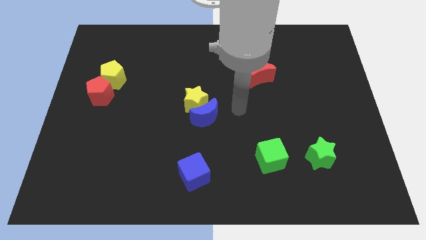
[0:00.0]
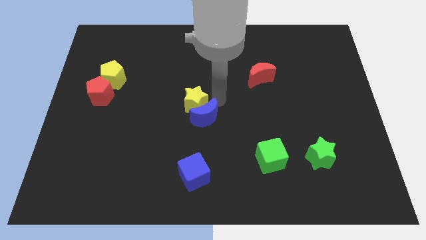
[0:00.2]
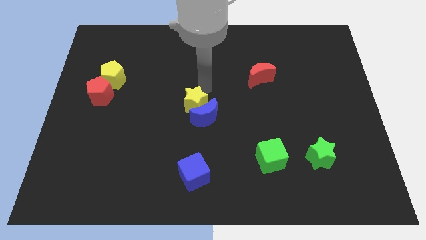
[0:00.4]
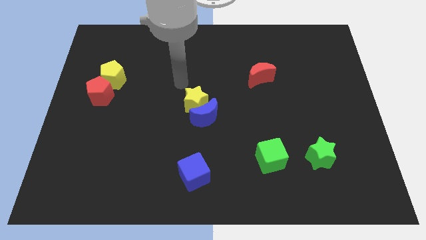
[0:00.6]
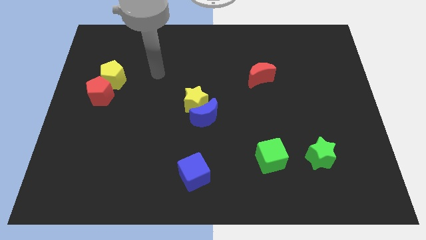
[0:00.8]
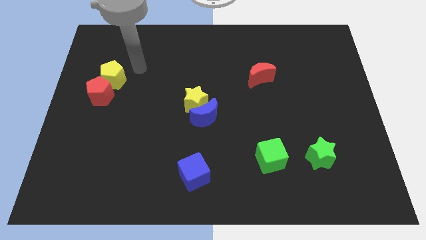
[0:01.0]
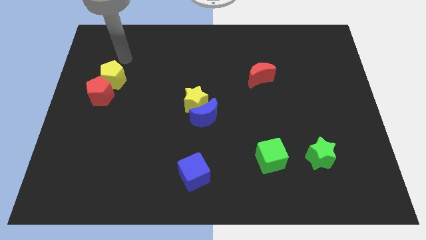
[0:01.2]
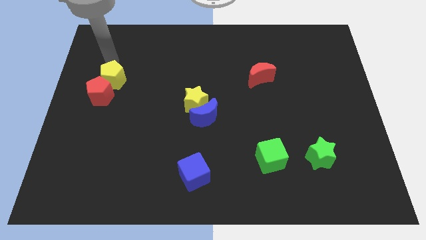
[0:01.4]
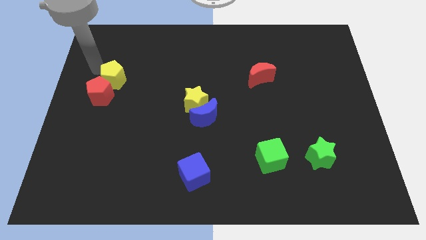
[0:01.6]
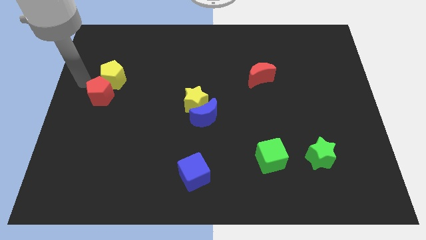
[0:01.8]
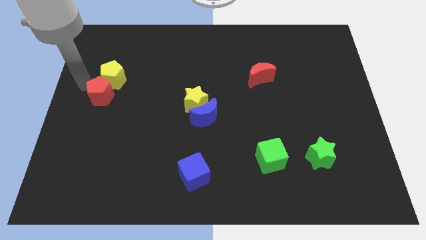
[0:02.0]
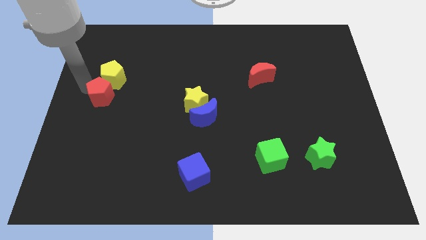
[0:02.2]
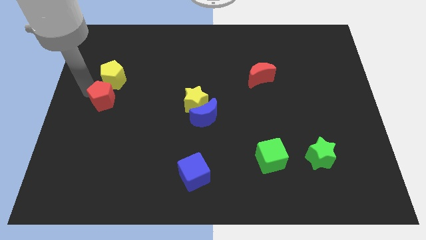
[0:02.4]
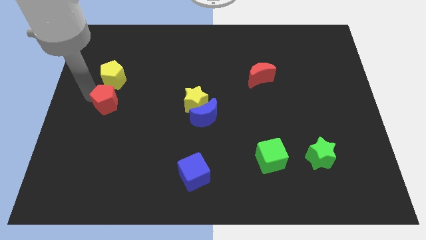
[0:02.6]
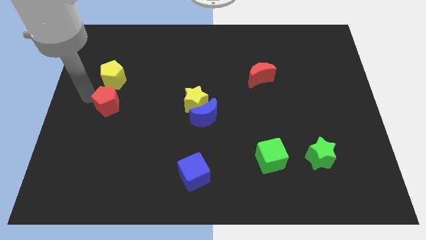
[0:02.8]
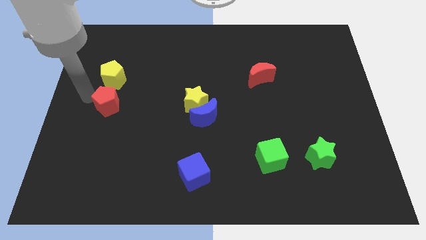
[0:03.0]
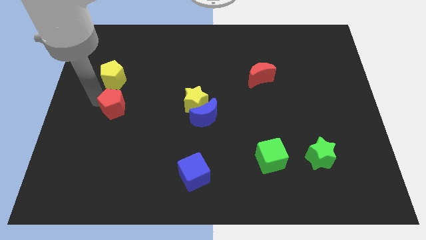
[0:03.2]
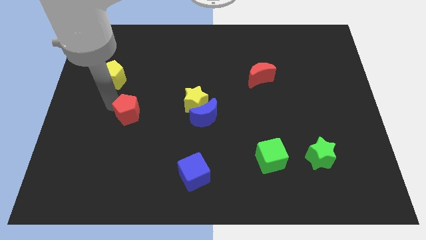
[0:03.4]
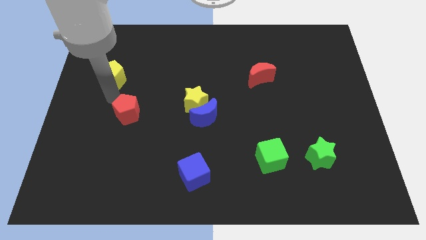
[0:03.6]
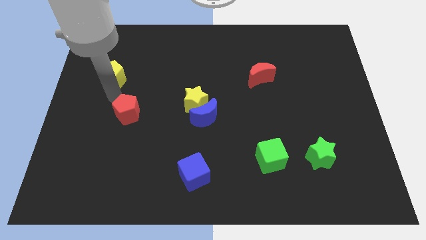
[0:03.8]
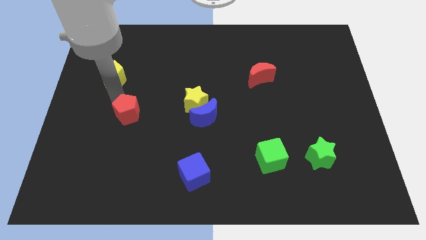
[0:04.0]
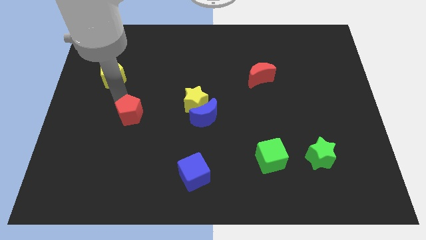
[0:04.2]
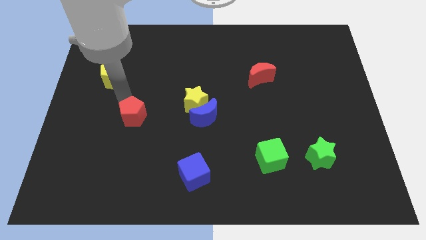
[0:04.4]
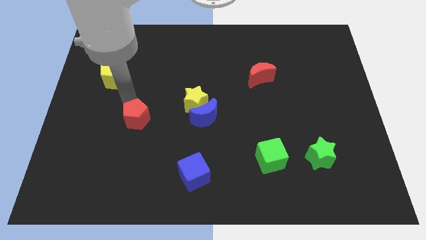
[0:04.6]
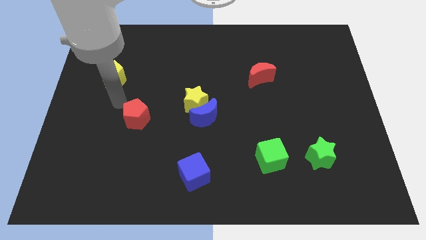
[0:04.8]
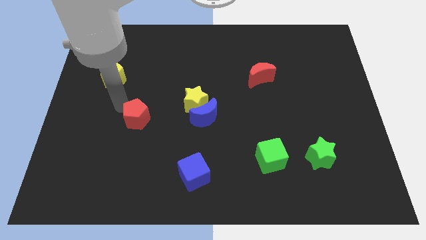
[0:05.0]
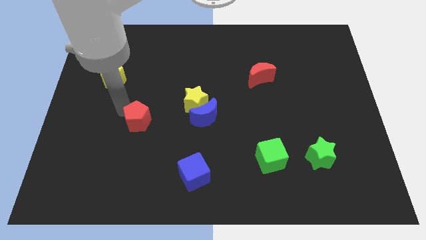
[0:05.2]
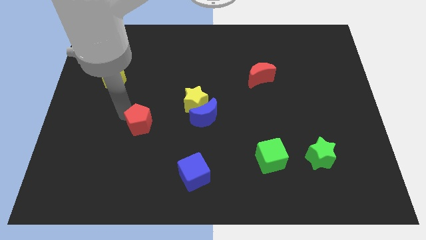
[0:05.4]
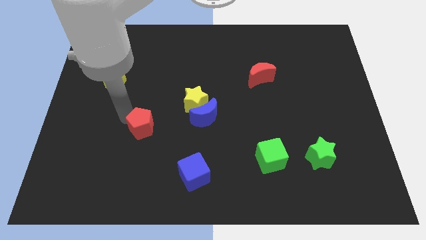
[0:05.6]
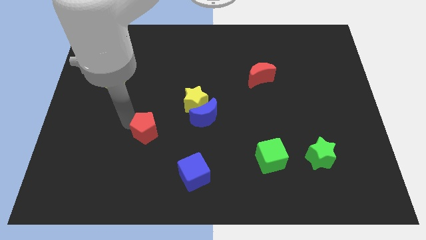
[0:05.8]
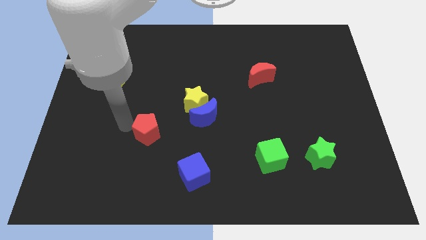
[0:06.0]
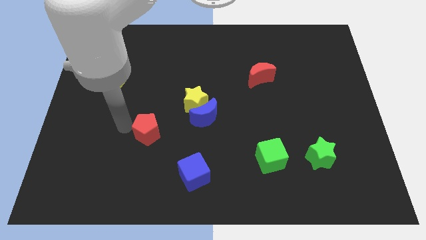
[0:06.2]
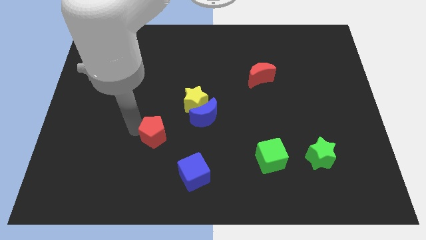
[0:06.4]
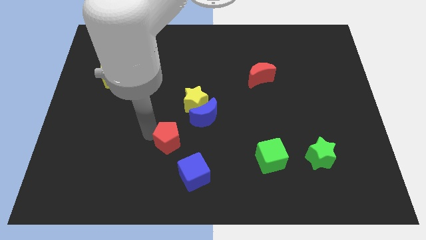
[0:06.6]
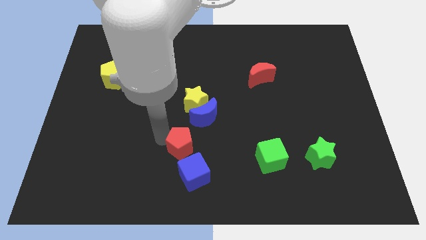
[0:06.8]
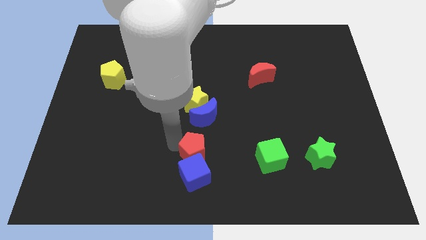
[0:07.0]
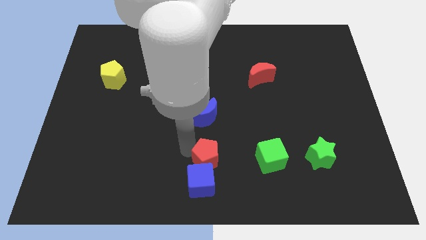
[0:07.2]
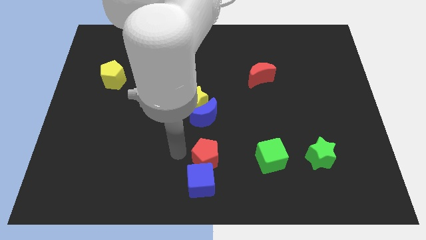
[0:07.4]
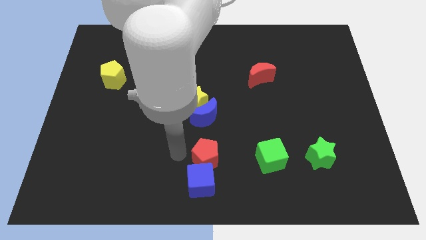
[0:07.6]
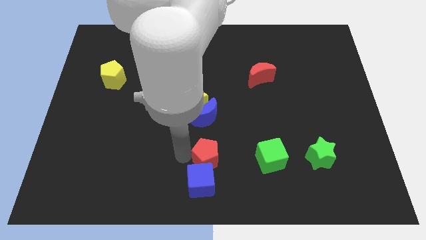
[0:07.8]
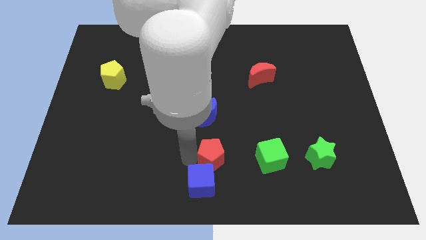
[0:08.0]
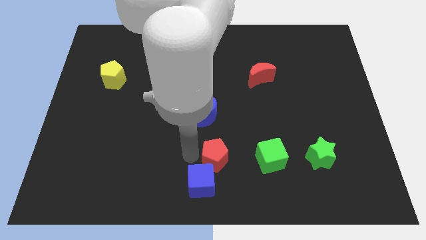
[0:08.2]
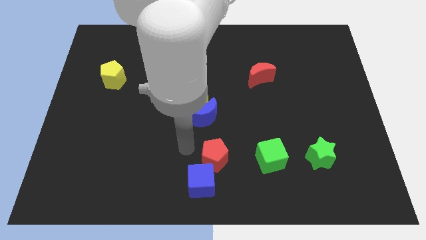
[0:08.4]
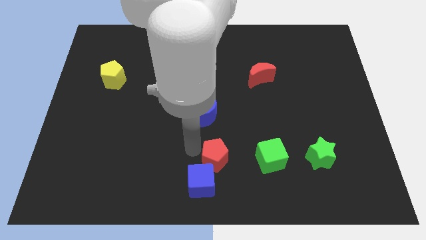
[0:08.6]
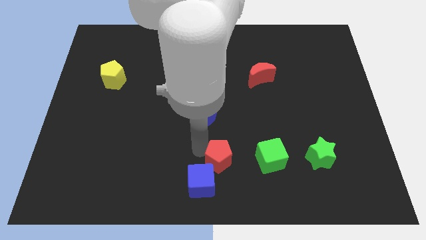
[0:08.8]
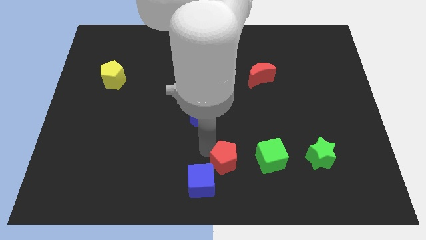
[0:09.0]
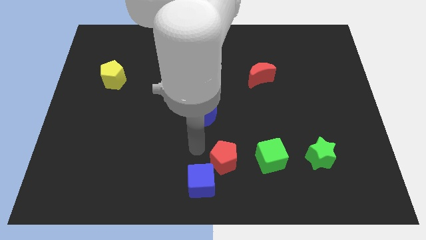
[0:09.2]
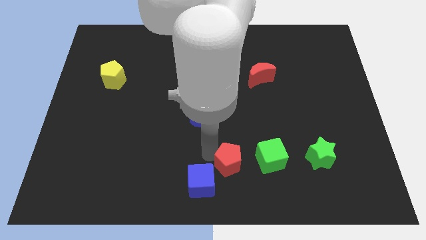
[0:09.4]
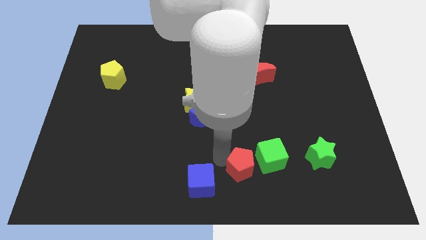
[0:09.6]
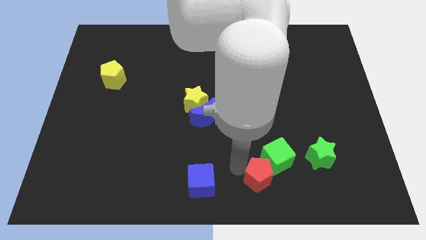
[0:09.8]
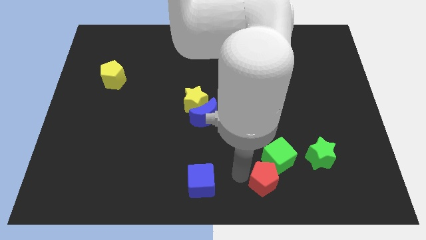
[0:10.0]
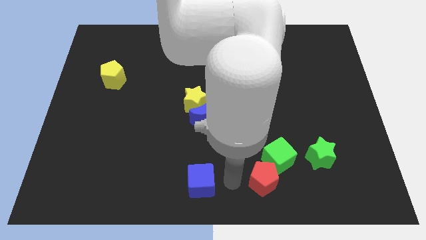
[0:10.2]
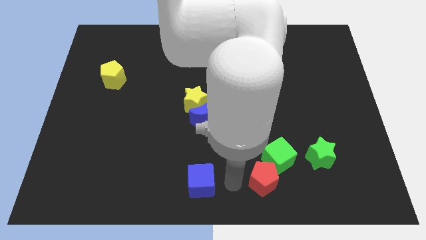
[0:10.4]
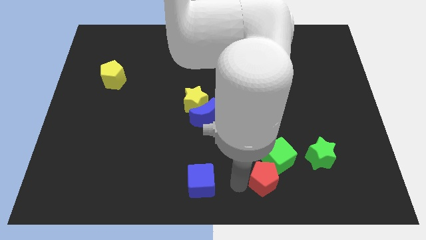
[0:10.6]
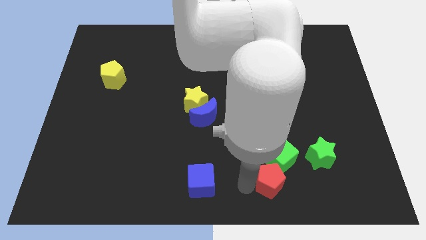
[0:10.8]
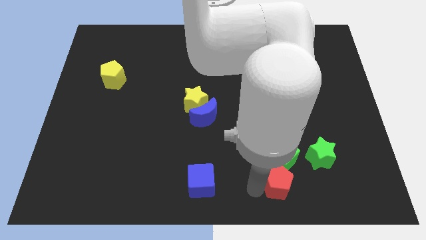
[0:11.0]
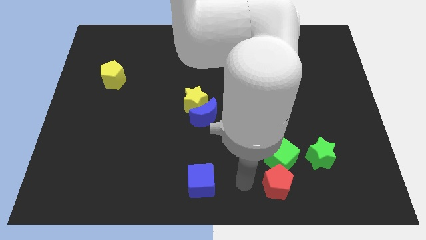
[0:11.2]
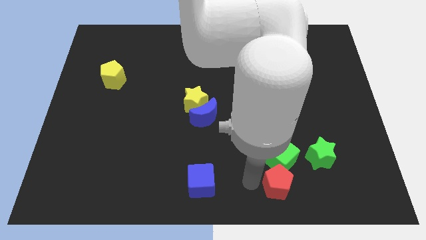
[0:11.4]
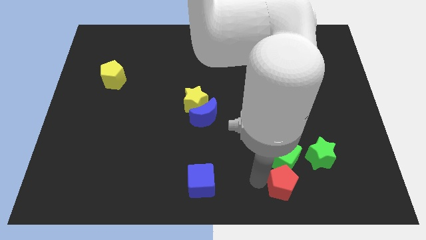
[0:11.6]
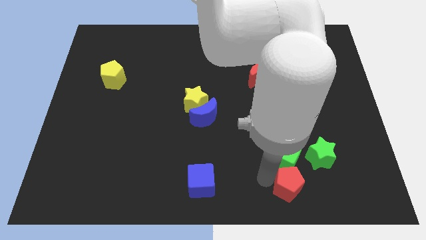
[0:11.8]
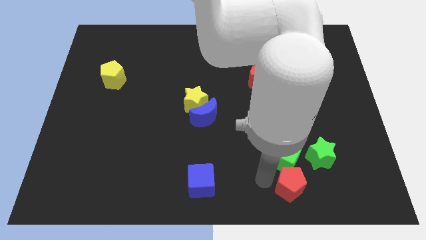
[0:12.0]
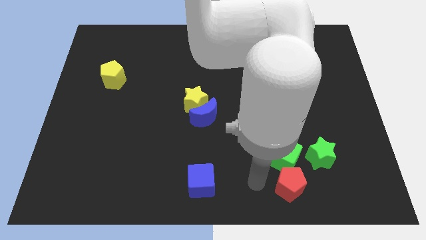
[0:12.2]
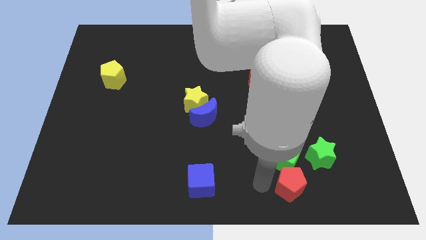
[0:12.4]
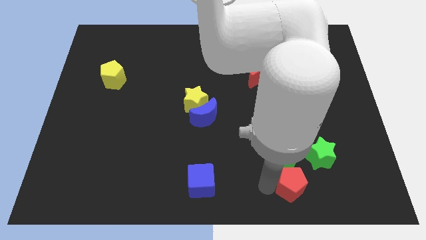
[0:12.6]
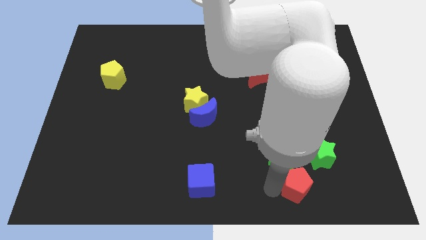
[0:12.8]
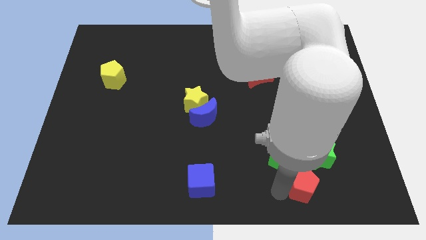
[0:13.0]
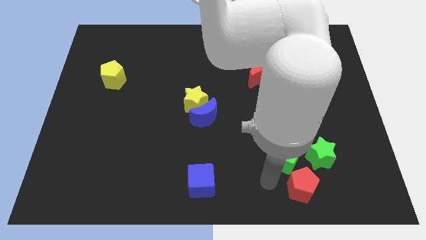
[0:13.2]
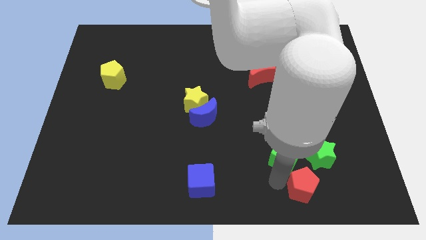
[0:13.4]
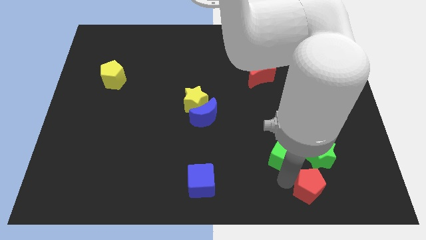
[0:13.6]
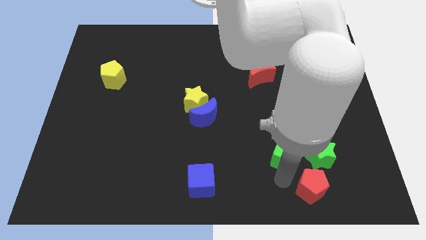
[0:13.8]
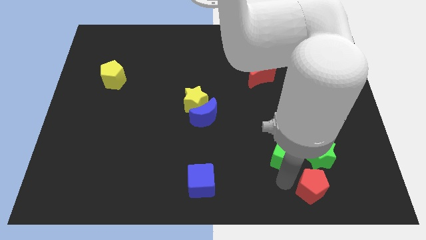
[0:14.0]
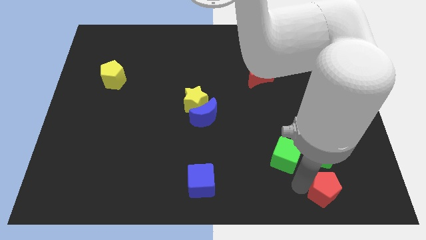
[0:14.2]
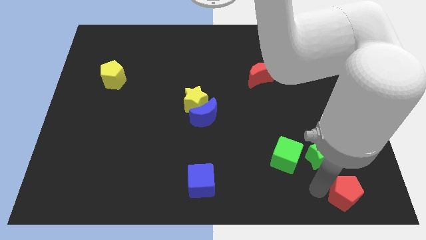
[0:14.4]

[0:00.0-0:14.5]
put the red pentagon to the bottom right
